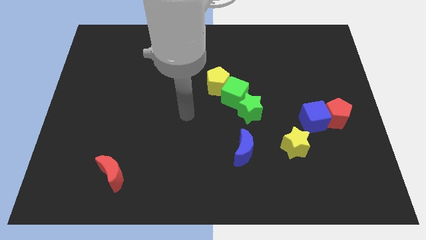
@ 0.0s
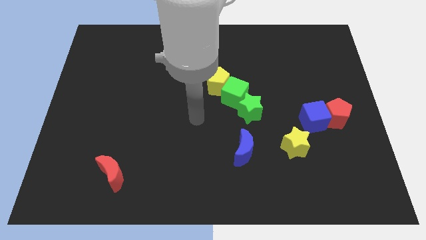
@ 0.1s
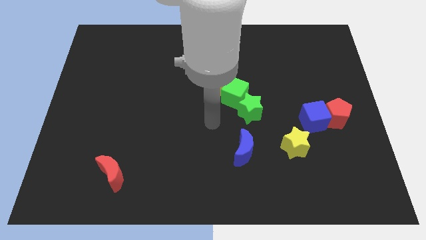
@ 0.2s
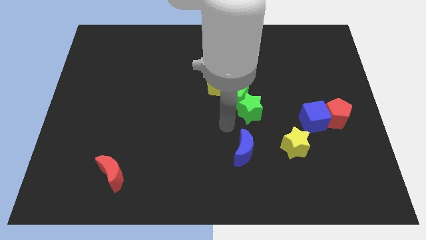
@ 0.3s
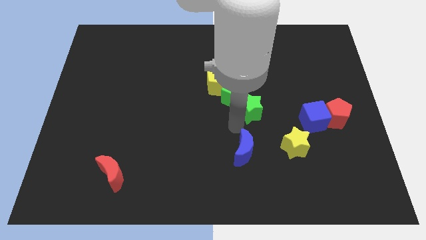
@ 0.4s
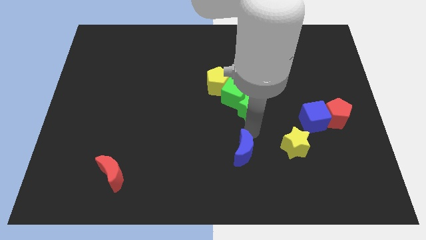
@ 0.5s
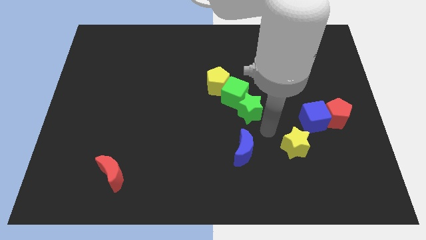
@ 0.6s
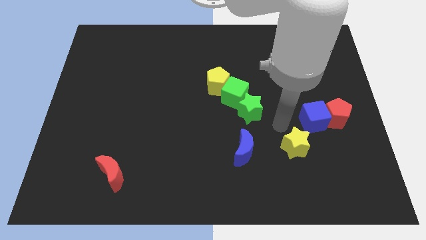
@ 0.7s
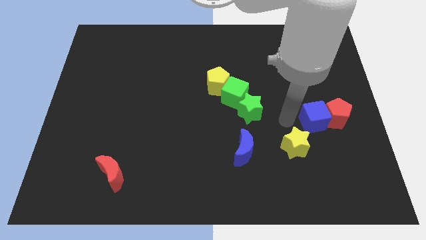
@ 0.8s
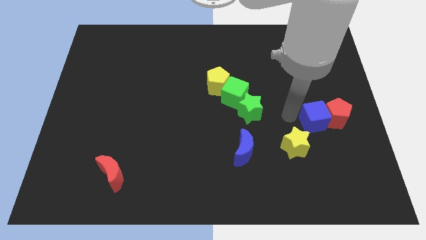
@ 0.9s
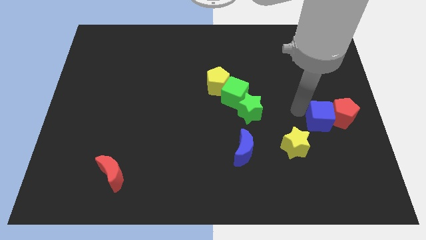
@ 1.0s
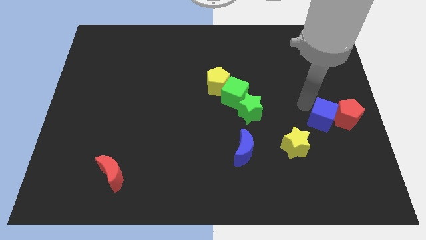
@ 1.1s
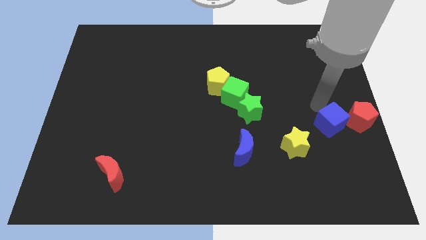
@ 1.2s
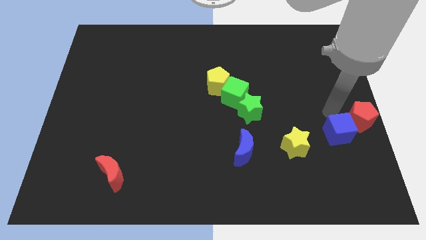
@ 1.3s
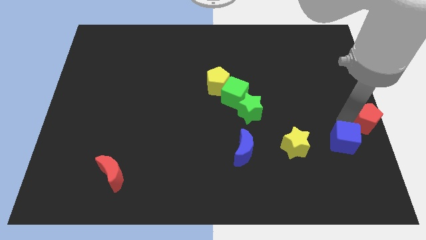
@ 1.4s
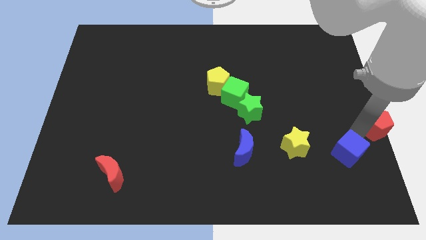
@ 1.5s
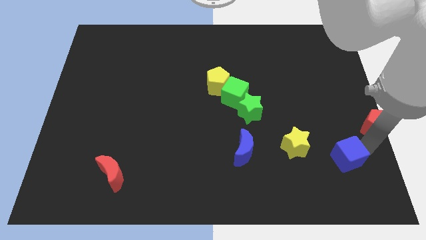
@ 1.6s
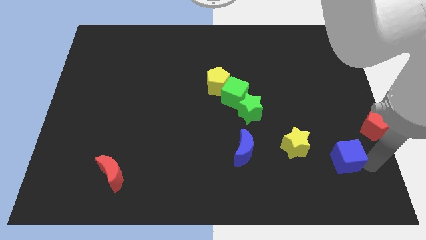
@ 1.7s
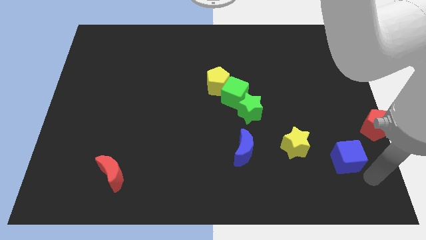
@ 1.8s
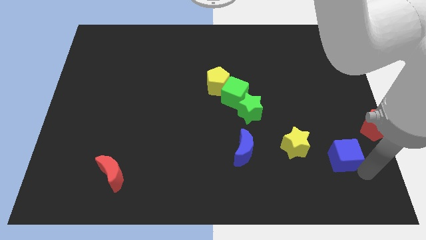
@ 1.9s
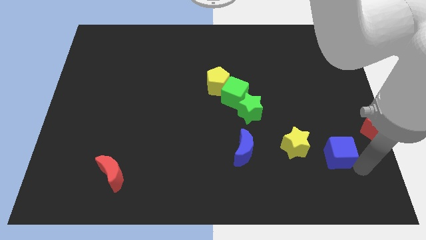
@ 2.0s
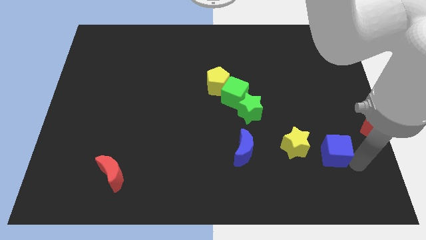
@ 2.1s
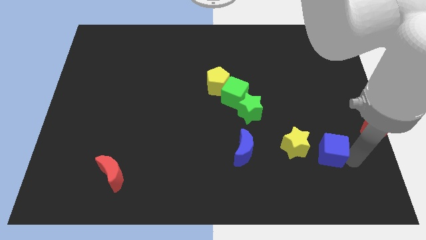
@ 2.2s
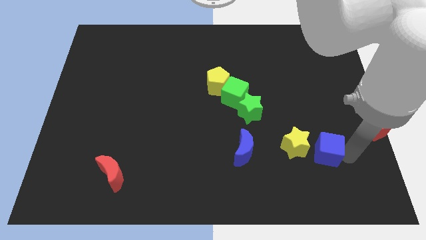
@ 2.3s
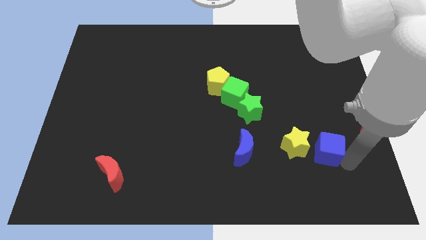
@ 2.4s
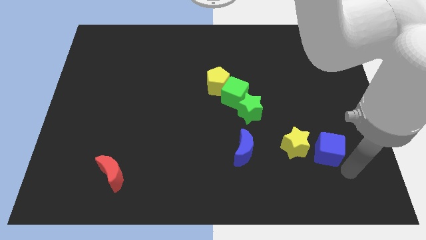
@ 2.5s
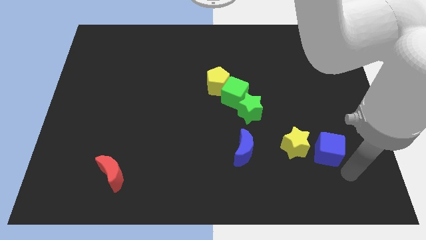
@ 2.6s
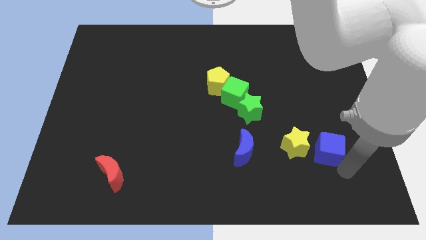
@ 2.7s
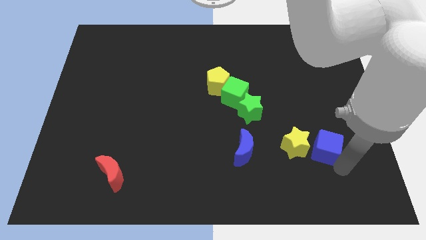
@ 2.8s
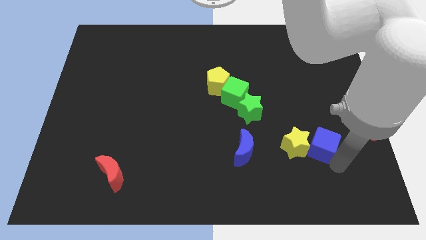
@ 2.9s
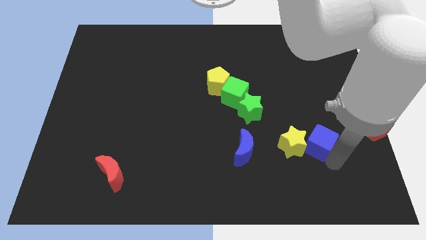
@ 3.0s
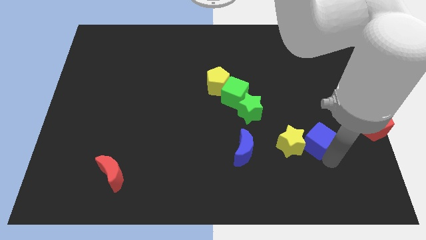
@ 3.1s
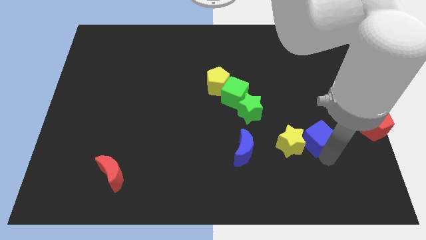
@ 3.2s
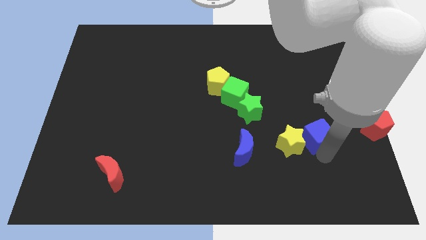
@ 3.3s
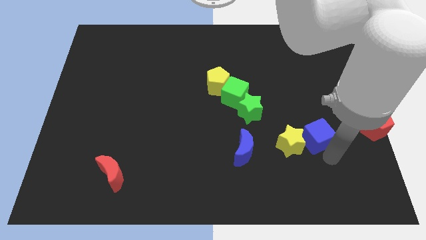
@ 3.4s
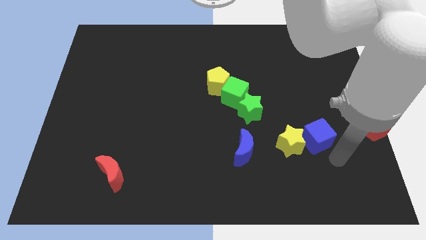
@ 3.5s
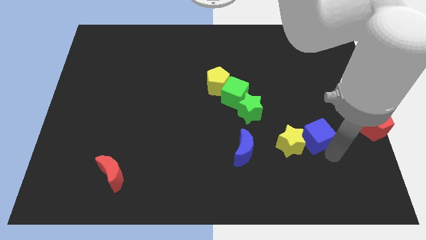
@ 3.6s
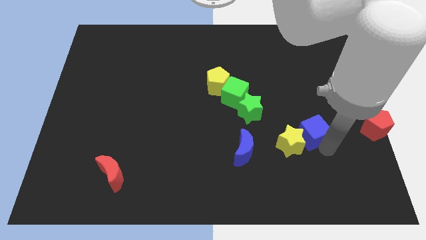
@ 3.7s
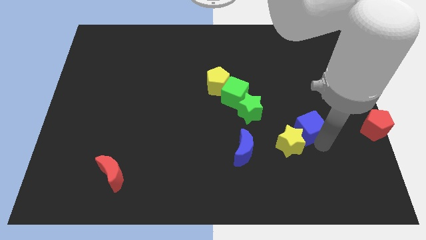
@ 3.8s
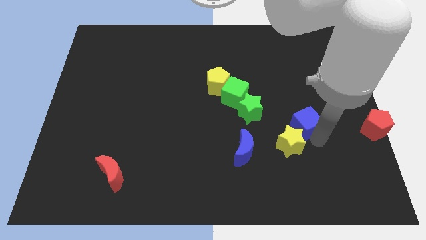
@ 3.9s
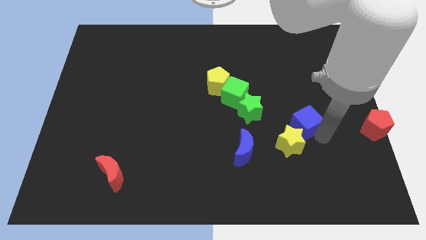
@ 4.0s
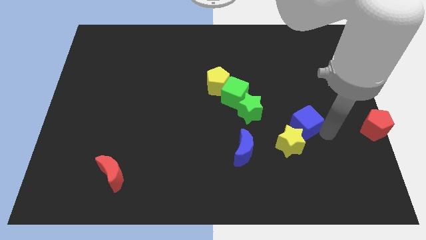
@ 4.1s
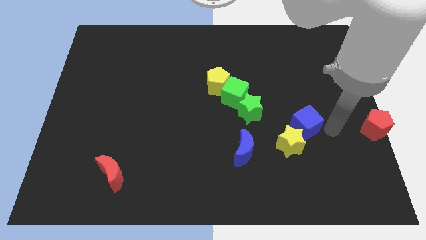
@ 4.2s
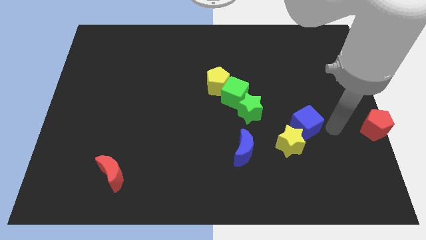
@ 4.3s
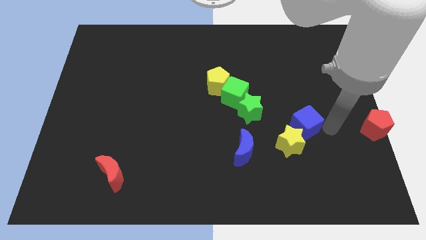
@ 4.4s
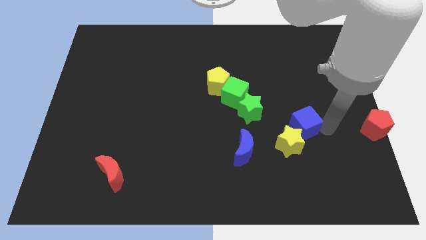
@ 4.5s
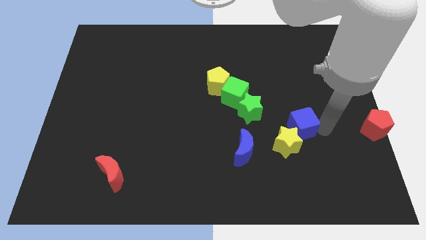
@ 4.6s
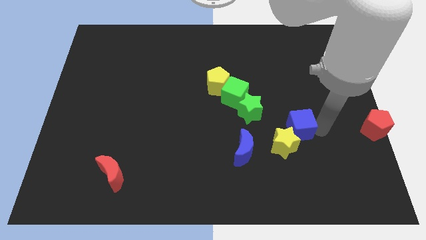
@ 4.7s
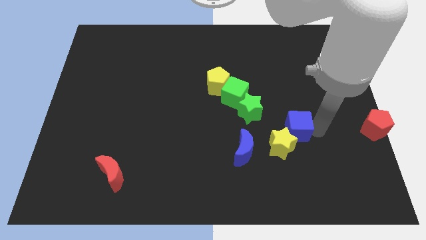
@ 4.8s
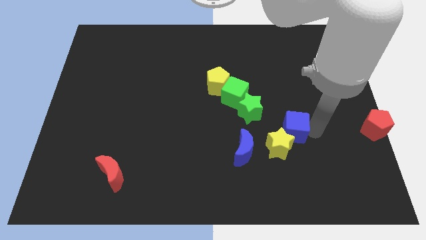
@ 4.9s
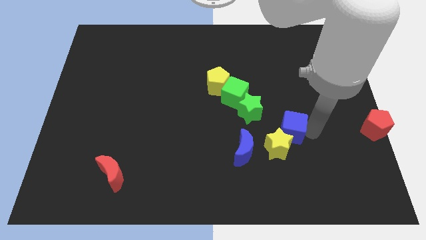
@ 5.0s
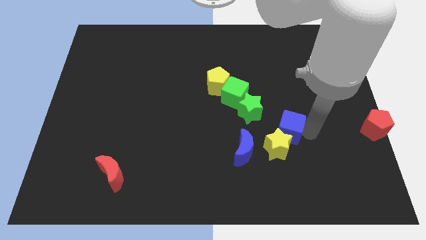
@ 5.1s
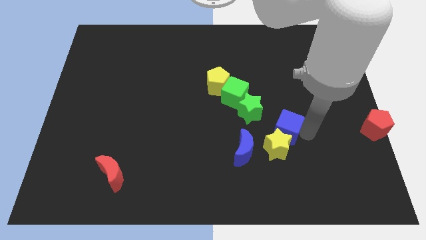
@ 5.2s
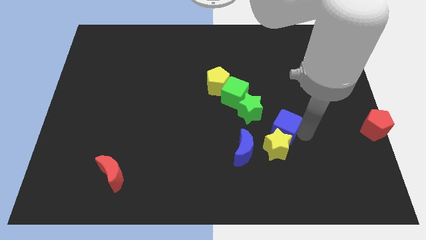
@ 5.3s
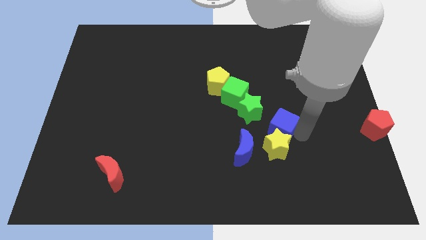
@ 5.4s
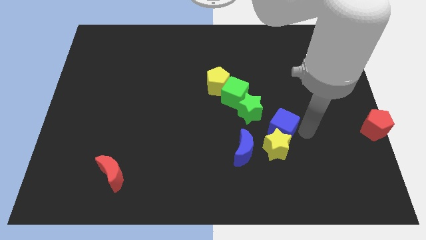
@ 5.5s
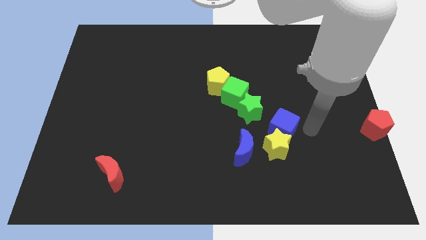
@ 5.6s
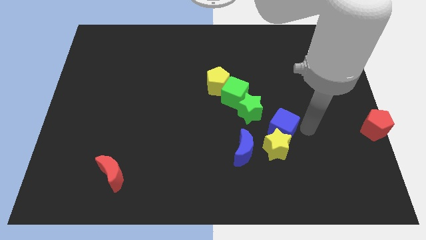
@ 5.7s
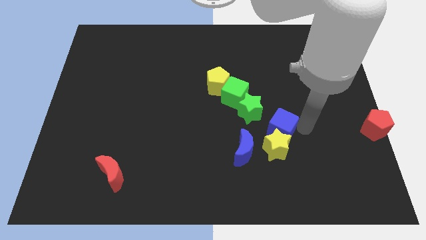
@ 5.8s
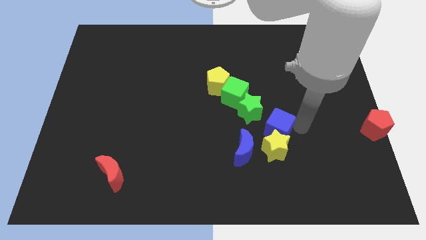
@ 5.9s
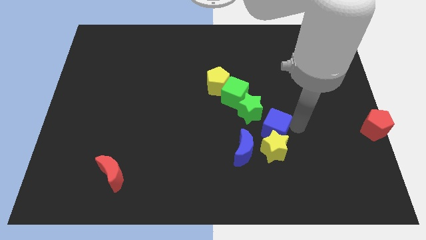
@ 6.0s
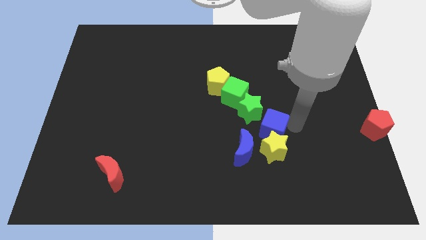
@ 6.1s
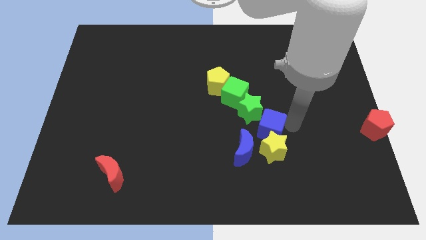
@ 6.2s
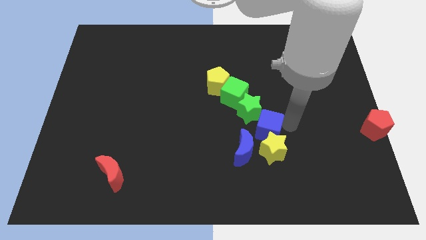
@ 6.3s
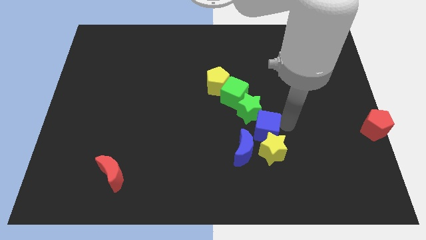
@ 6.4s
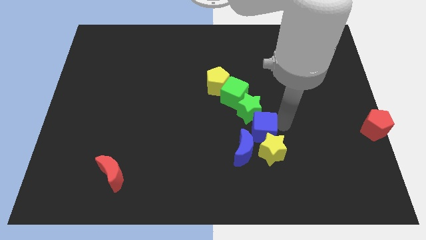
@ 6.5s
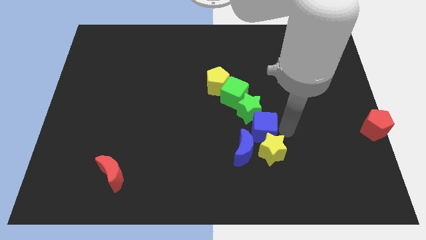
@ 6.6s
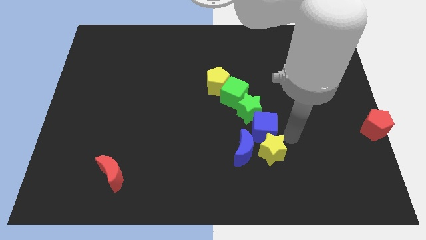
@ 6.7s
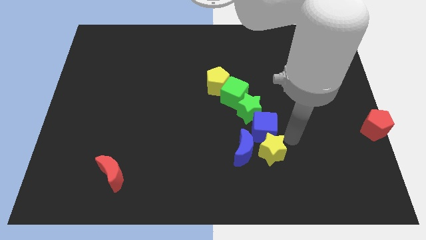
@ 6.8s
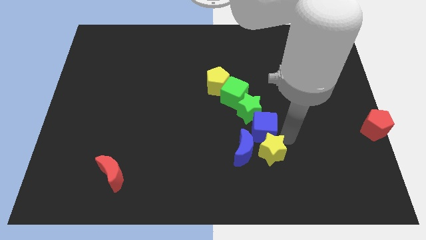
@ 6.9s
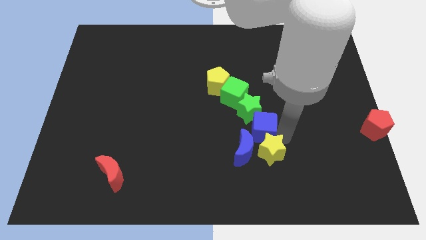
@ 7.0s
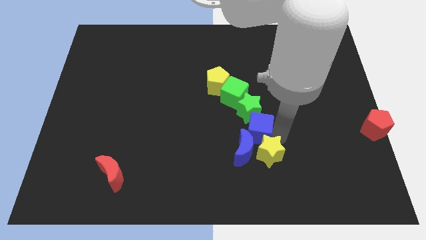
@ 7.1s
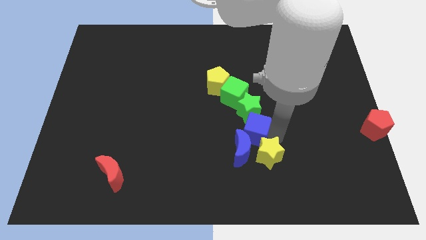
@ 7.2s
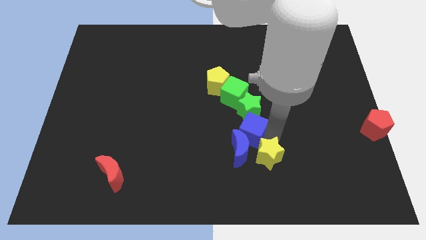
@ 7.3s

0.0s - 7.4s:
slide the blue cube to the center of the board
